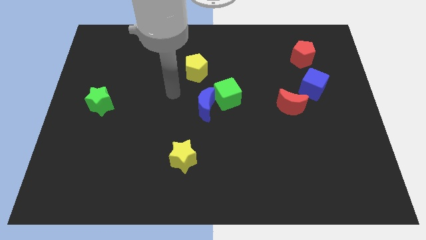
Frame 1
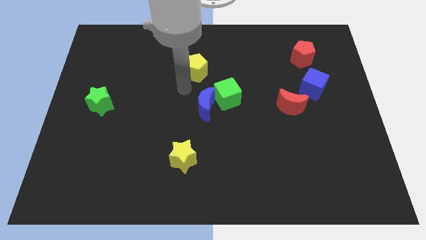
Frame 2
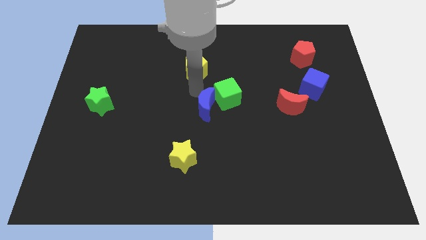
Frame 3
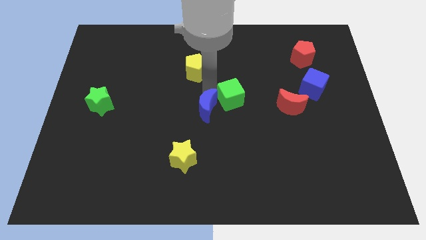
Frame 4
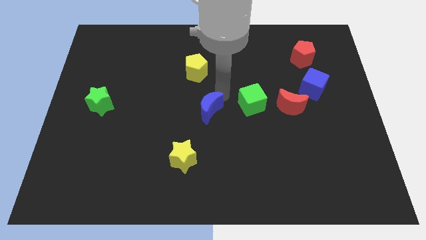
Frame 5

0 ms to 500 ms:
pull the blue moon apart from the green cube

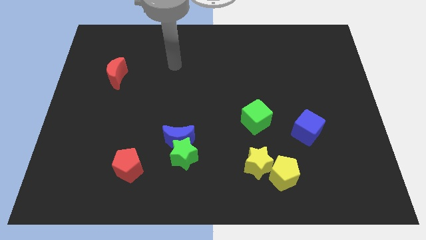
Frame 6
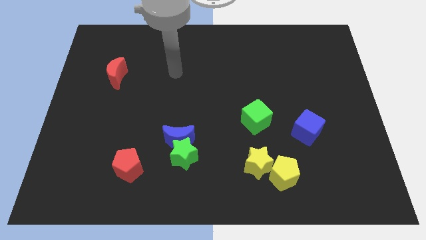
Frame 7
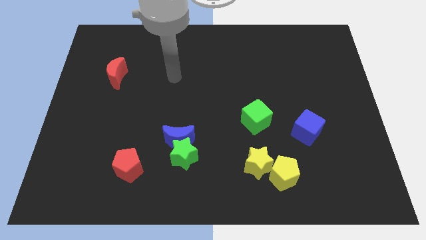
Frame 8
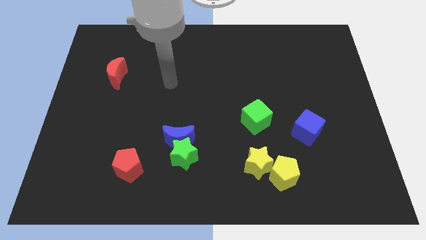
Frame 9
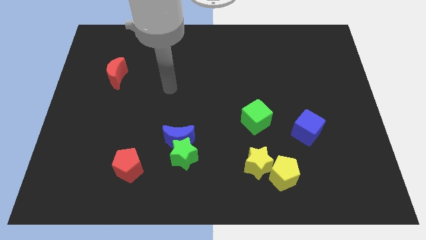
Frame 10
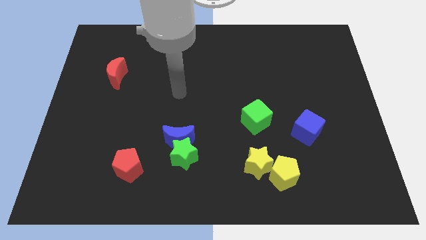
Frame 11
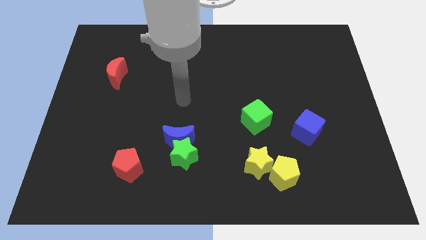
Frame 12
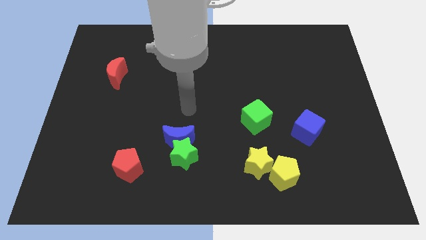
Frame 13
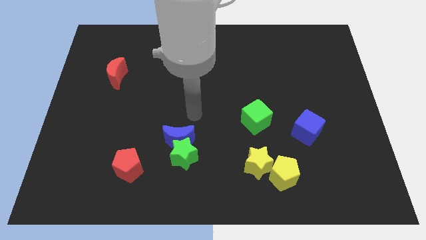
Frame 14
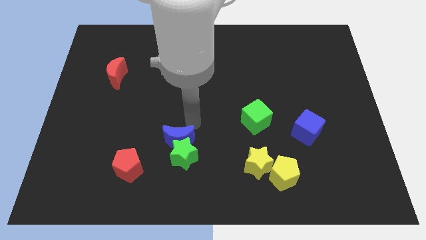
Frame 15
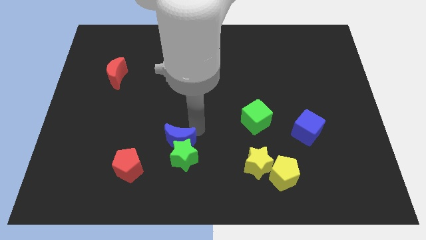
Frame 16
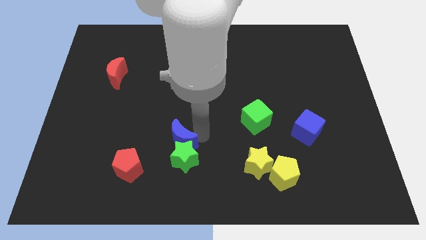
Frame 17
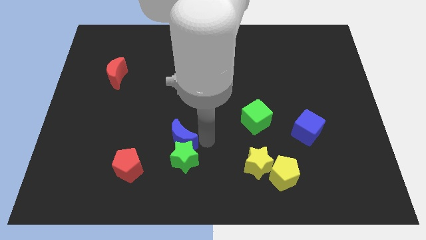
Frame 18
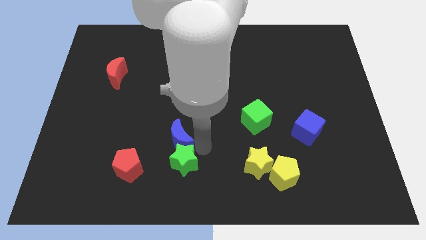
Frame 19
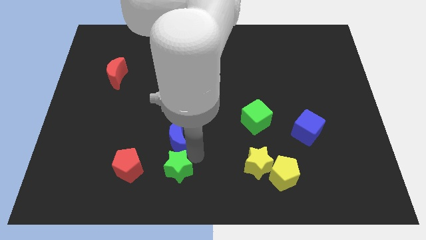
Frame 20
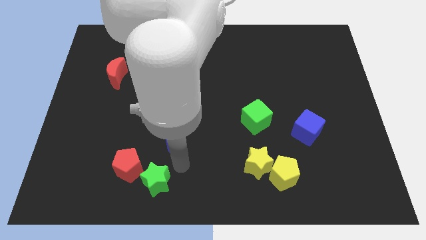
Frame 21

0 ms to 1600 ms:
move the blue moon away from the green star

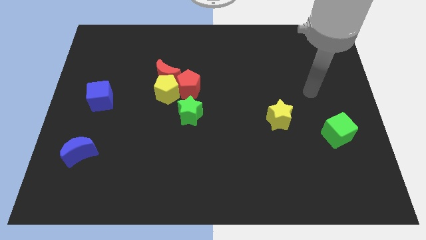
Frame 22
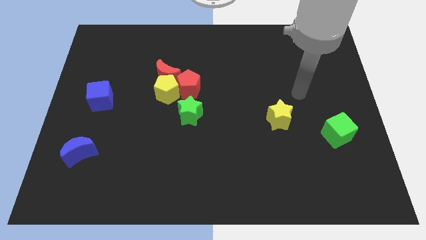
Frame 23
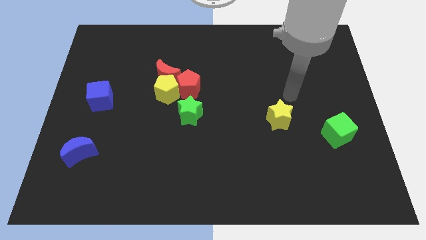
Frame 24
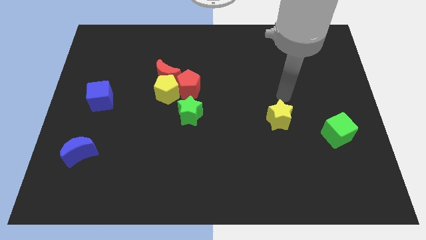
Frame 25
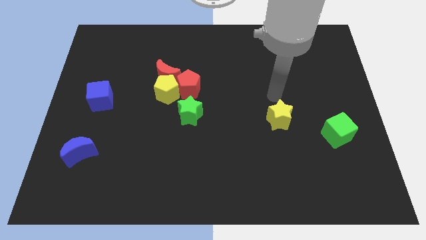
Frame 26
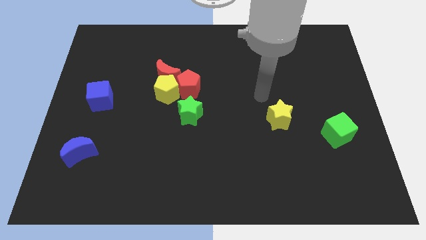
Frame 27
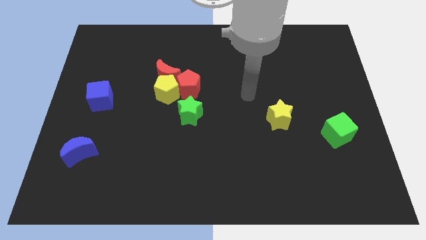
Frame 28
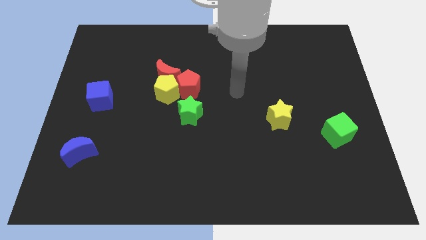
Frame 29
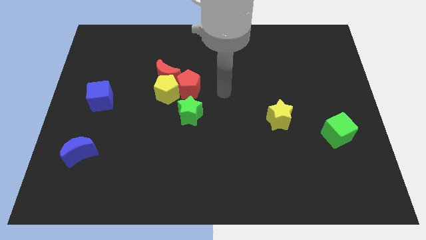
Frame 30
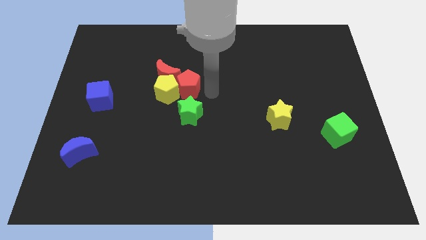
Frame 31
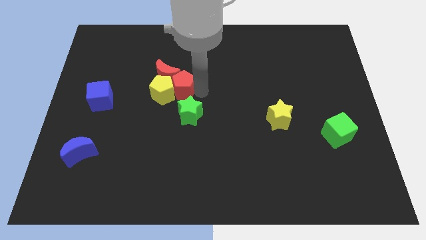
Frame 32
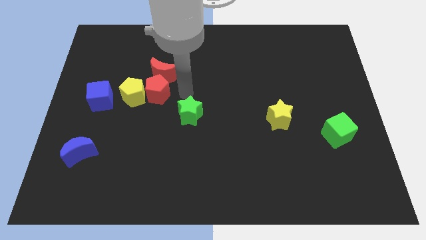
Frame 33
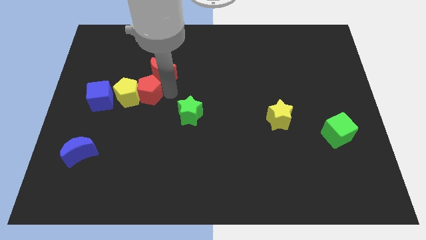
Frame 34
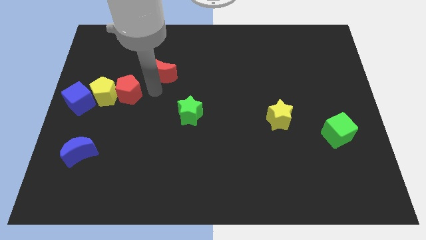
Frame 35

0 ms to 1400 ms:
separate the red moon from the yellow pentagon and red pentagon

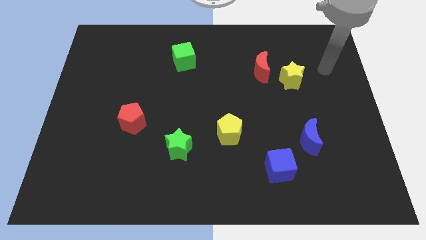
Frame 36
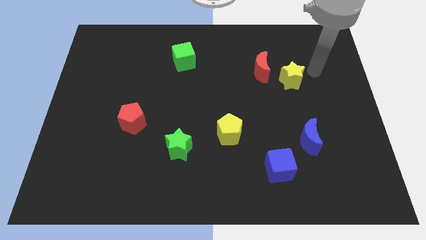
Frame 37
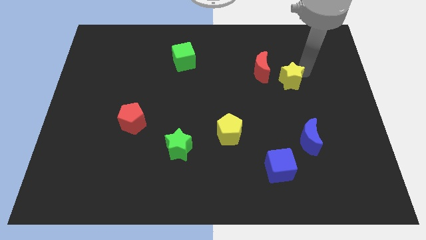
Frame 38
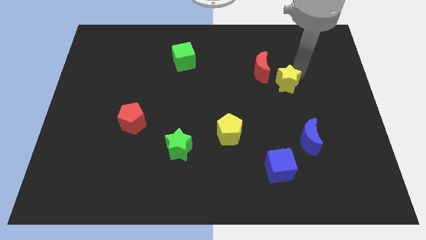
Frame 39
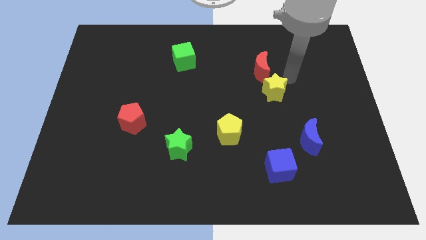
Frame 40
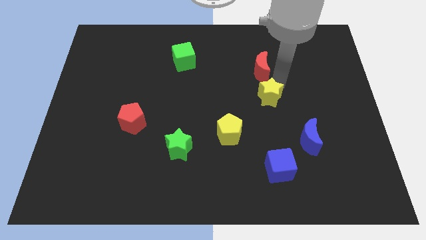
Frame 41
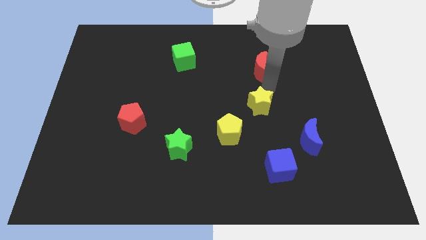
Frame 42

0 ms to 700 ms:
separate the red moon from the yellow star

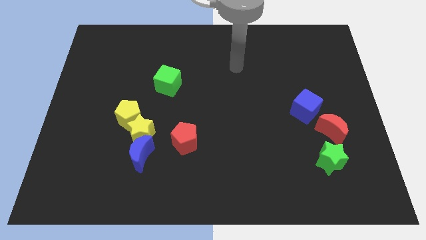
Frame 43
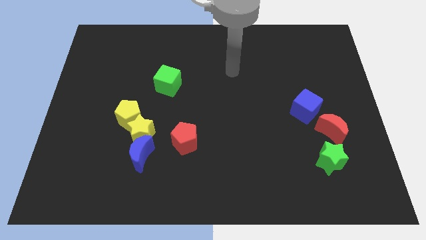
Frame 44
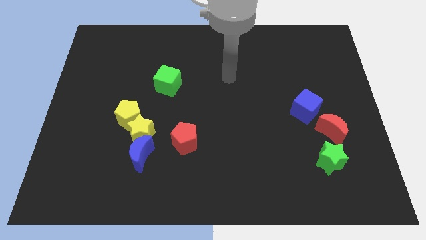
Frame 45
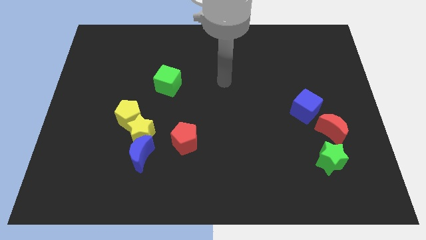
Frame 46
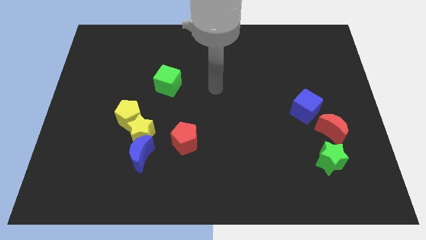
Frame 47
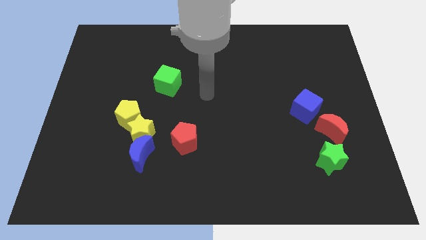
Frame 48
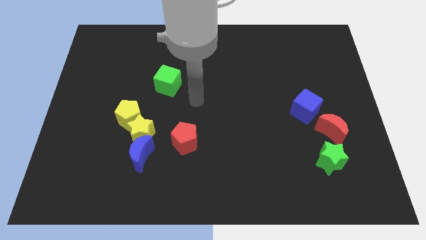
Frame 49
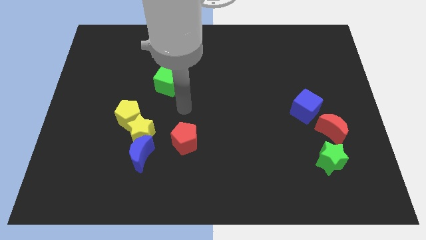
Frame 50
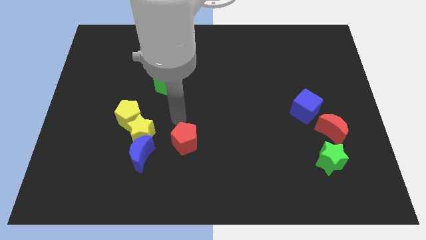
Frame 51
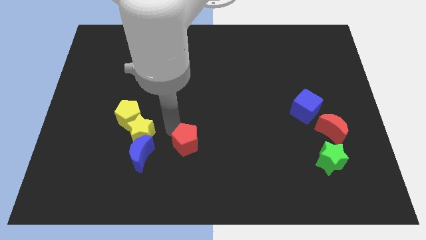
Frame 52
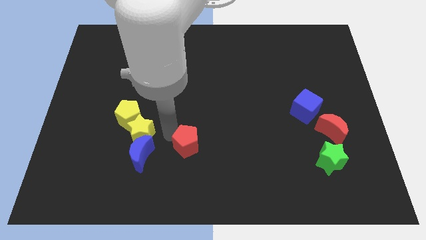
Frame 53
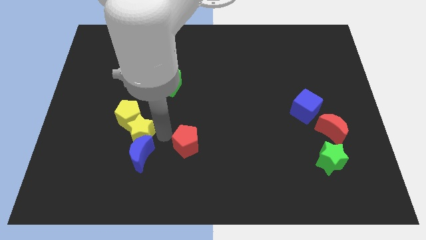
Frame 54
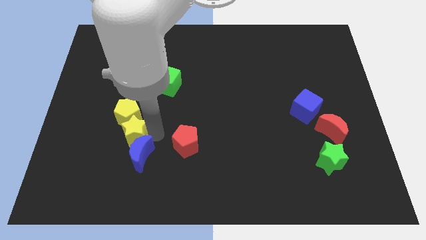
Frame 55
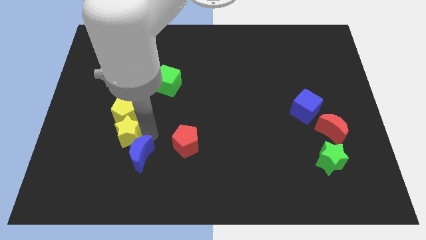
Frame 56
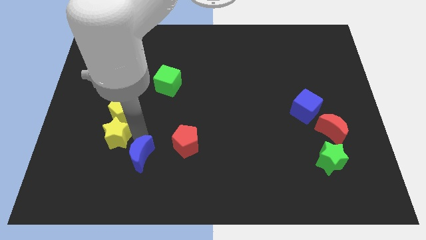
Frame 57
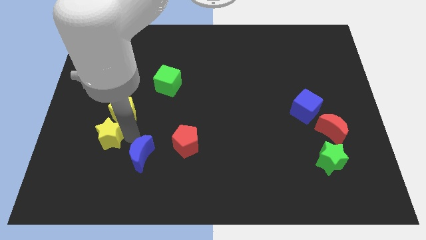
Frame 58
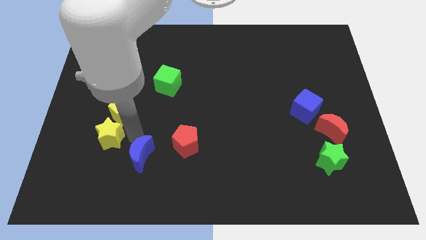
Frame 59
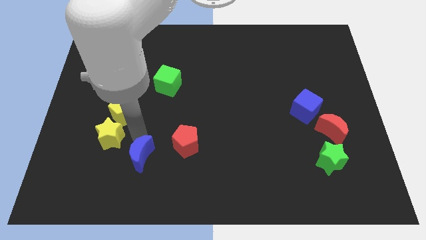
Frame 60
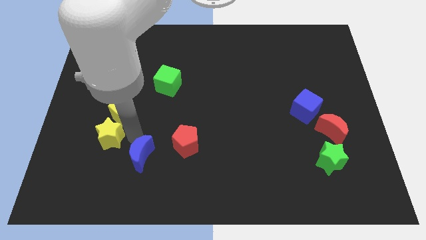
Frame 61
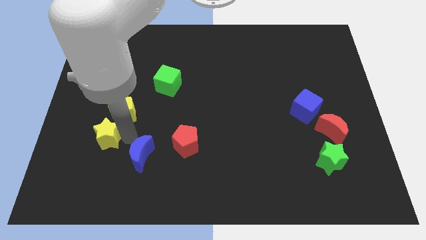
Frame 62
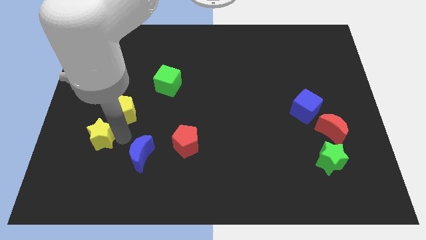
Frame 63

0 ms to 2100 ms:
pull the yellow star apart from the group of blocks

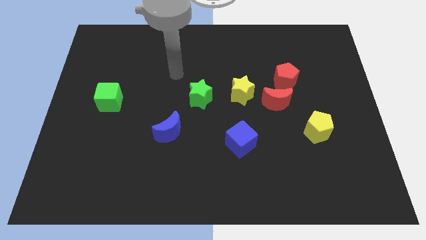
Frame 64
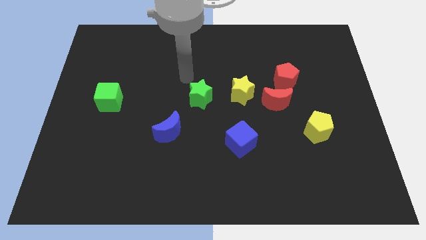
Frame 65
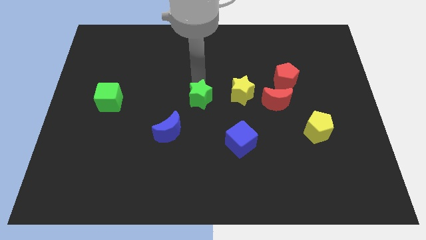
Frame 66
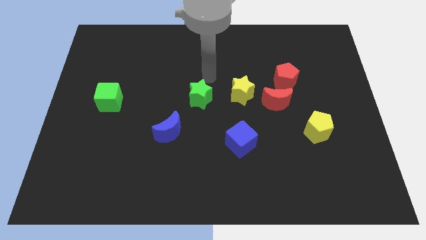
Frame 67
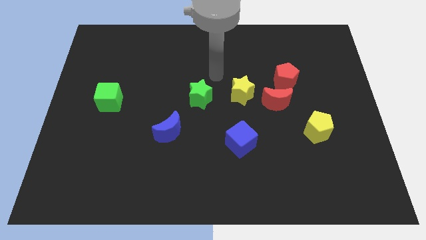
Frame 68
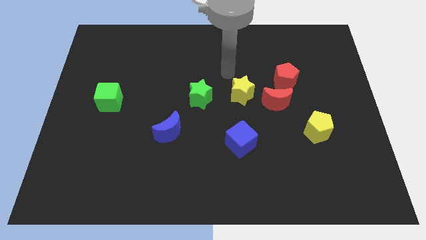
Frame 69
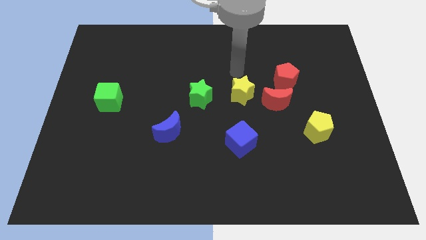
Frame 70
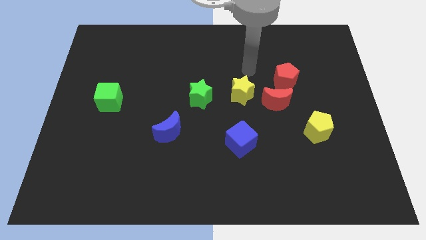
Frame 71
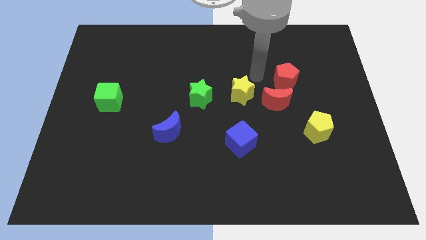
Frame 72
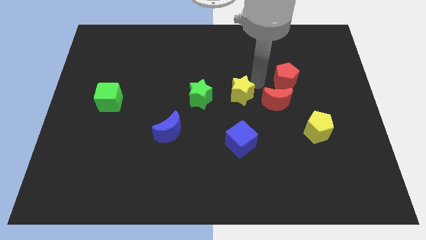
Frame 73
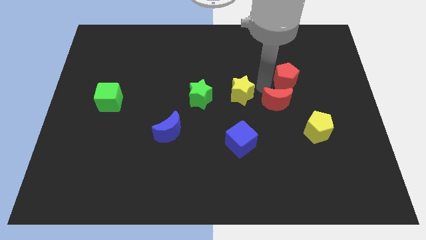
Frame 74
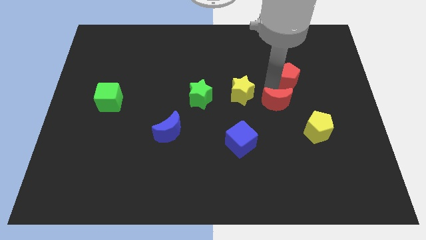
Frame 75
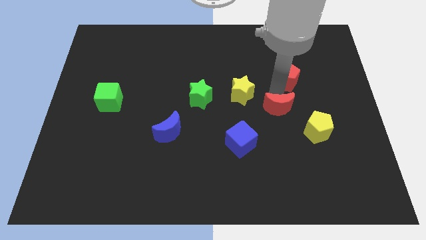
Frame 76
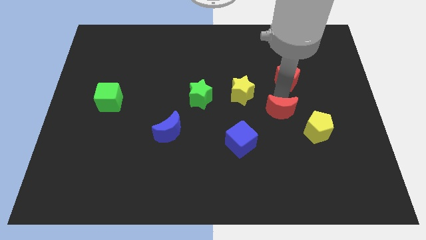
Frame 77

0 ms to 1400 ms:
pull the red pentagon apart from the red moon

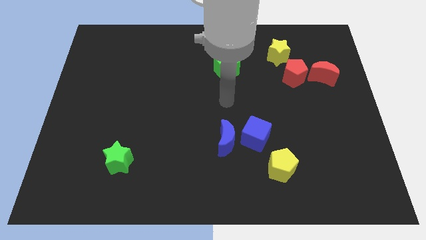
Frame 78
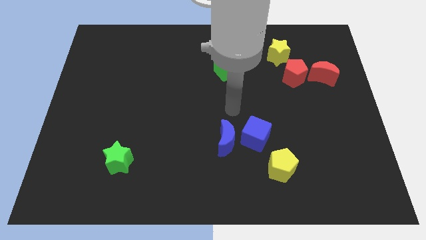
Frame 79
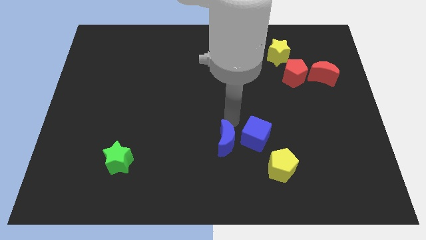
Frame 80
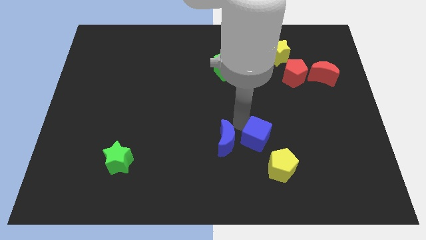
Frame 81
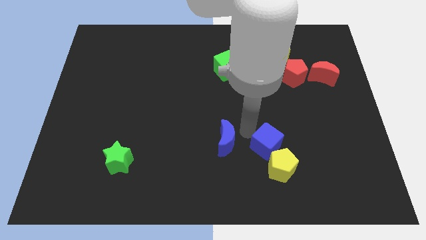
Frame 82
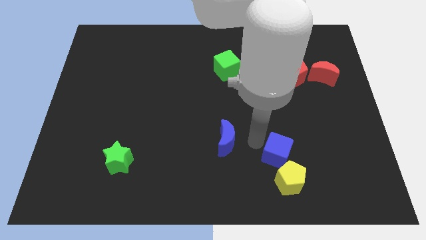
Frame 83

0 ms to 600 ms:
pull the blue moon apart from the blue cube

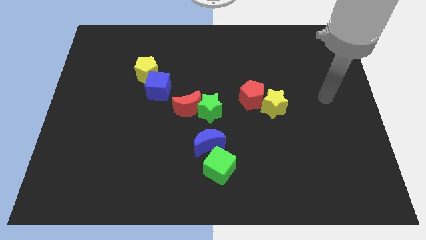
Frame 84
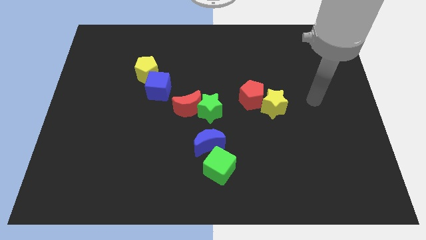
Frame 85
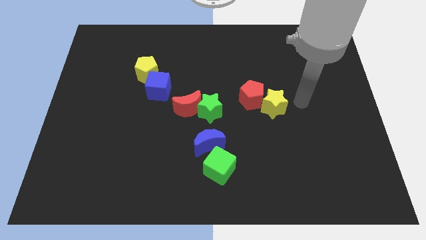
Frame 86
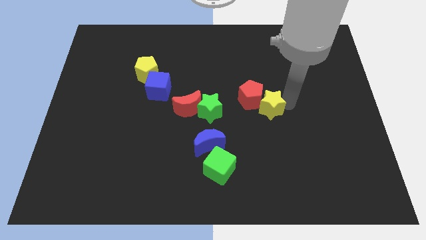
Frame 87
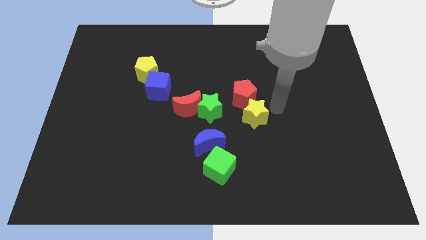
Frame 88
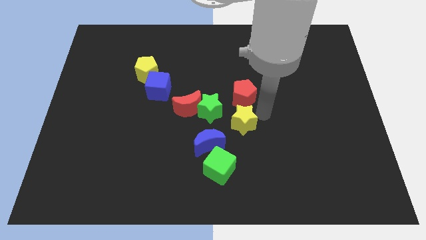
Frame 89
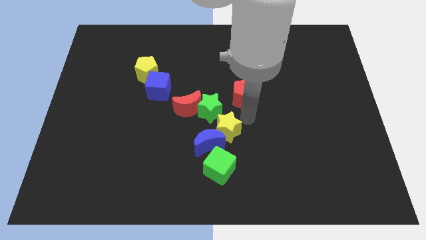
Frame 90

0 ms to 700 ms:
move the red pentagon away from the yellow star

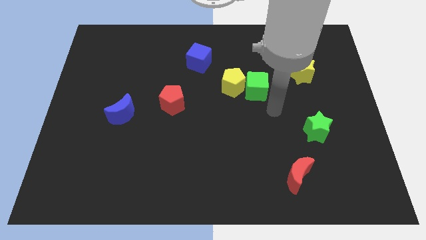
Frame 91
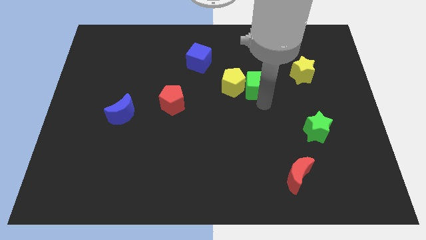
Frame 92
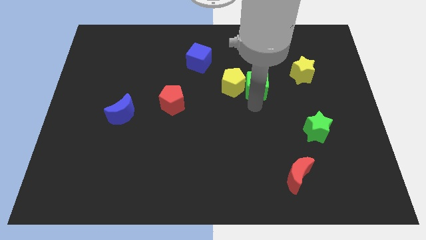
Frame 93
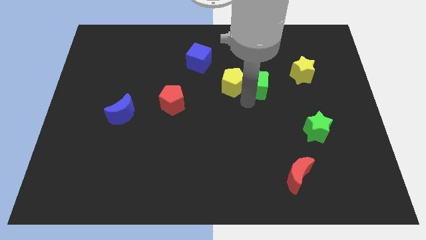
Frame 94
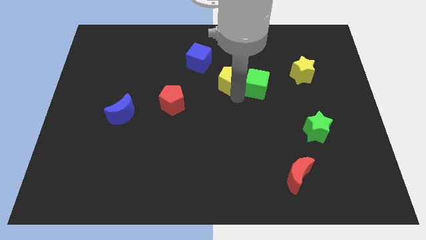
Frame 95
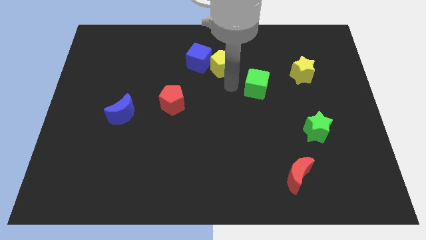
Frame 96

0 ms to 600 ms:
pull the green cube apart from the yellow pentagon
